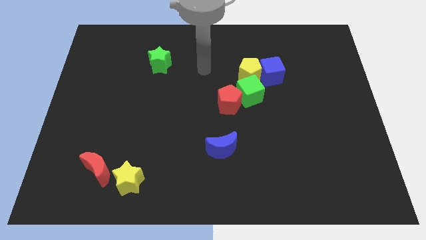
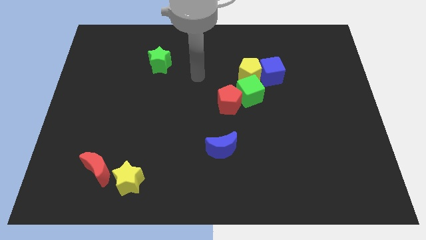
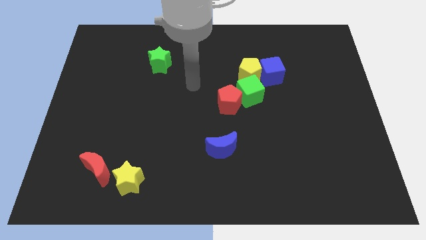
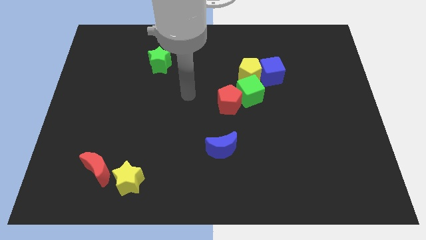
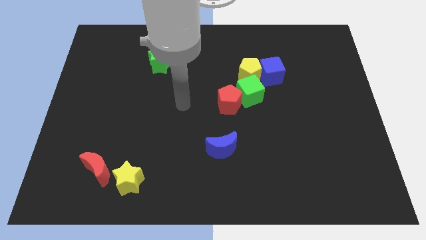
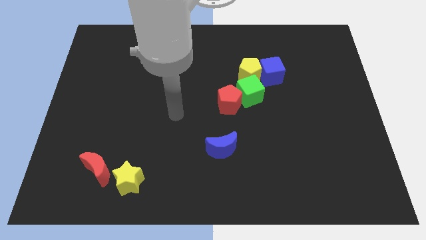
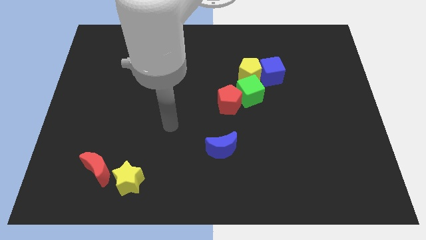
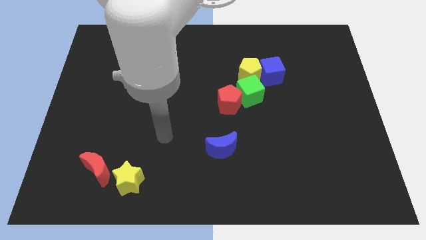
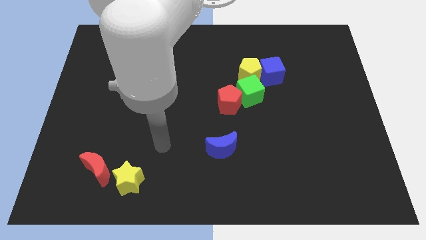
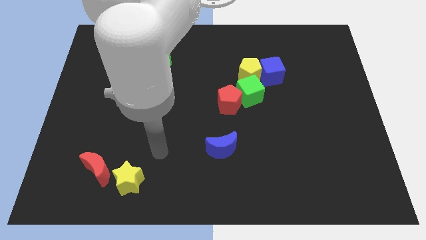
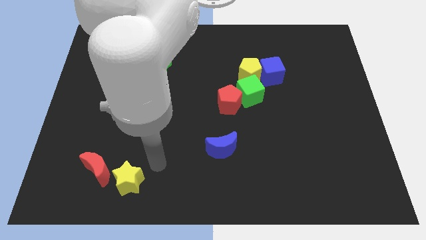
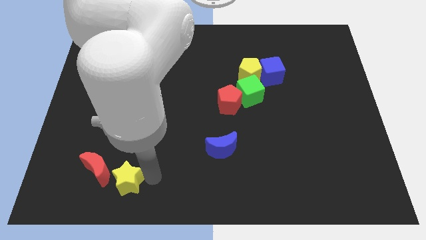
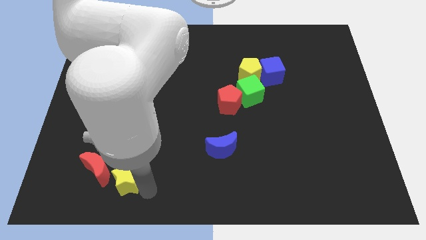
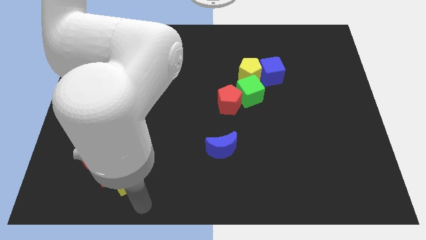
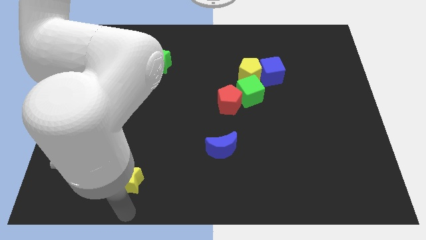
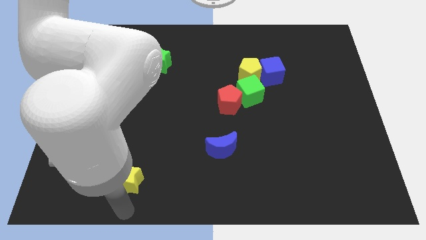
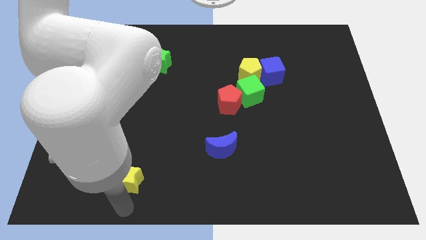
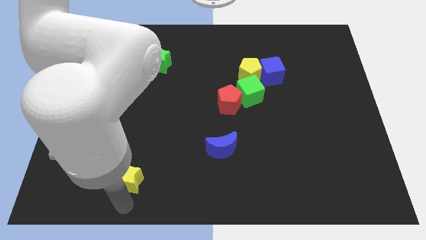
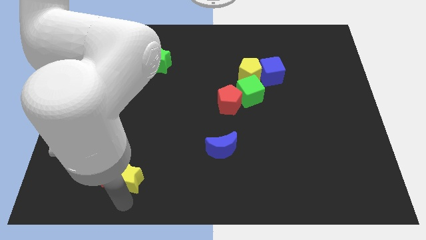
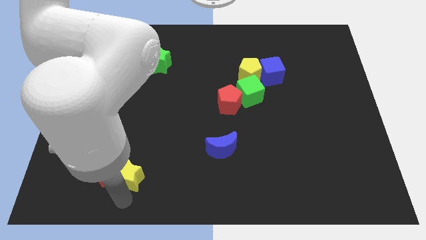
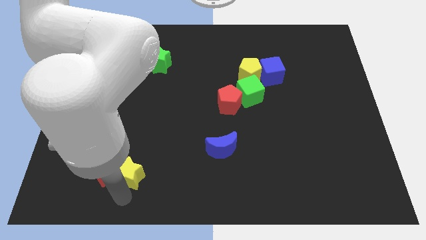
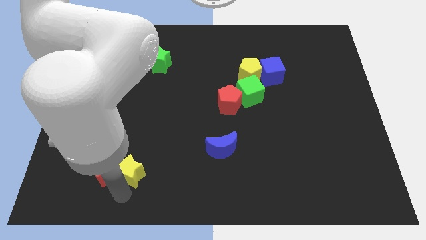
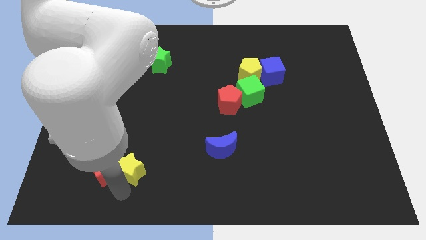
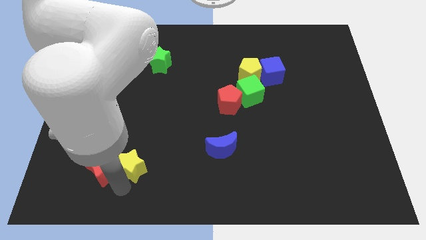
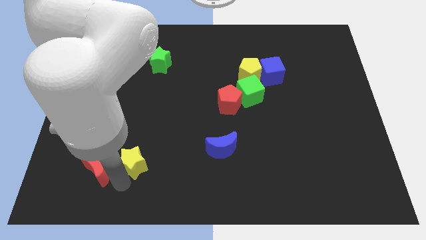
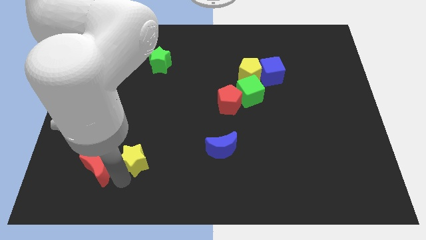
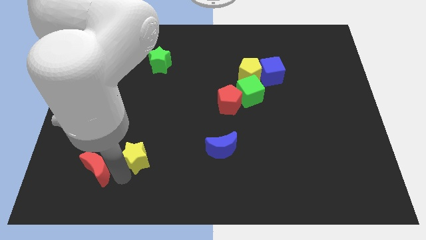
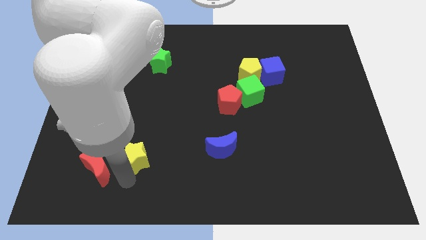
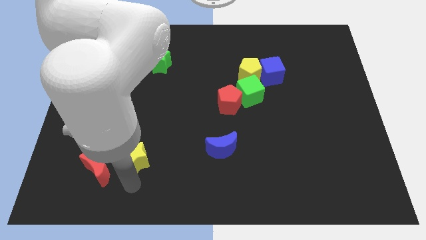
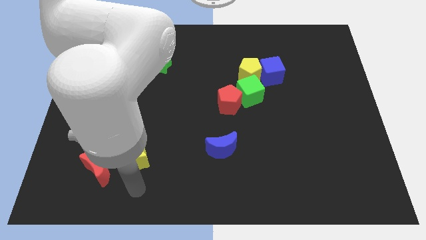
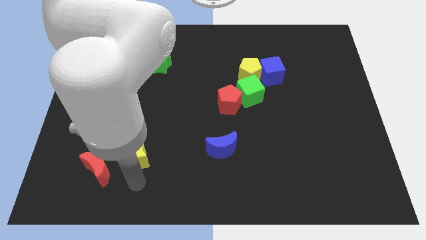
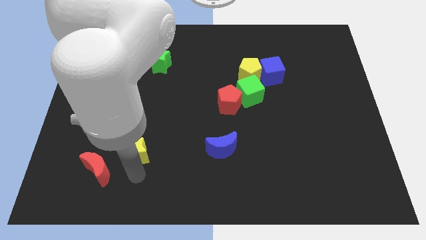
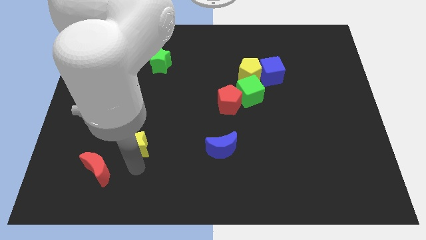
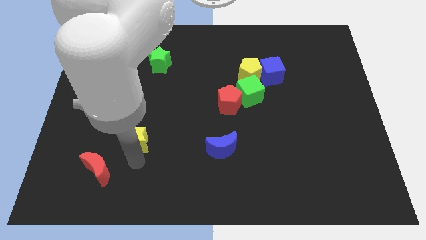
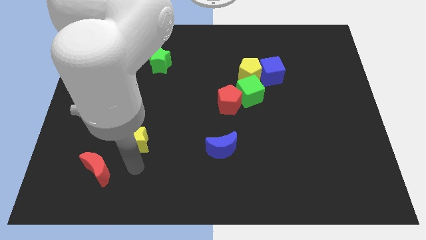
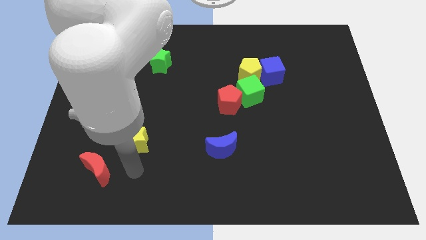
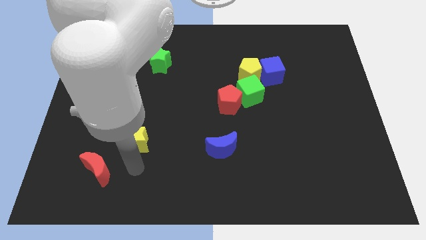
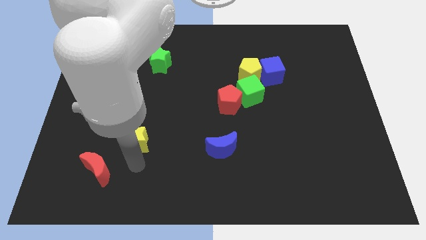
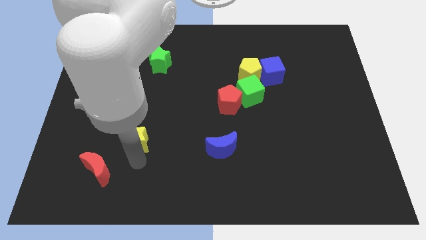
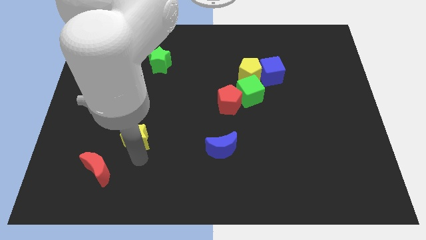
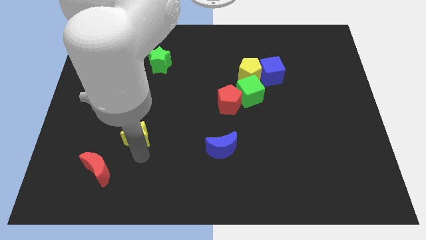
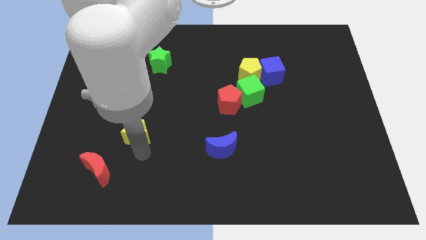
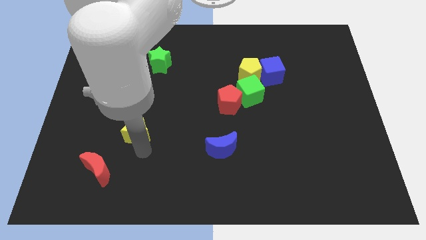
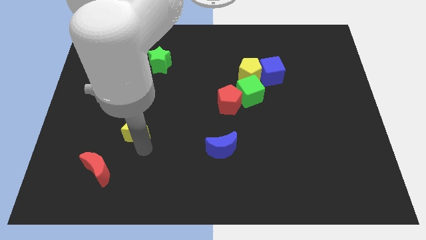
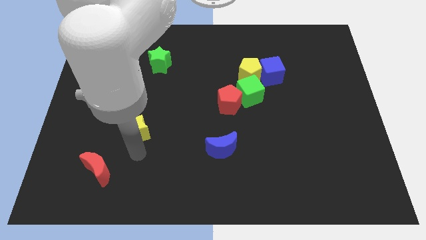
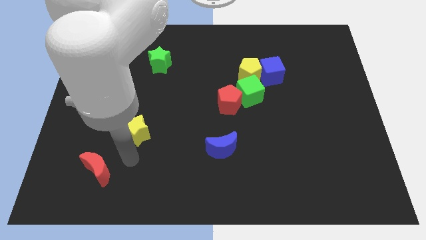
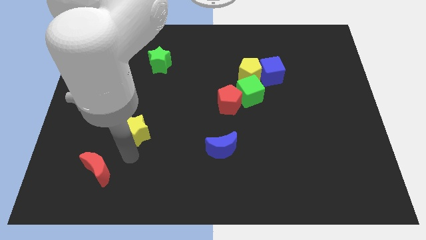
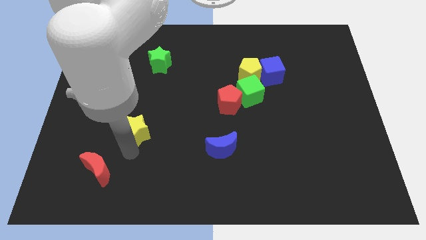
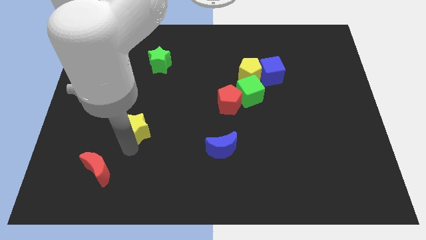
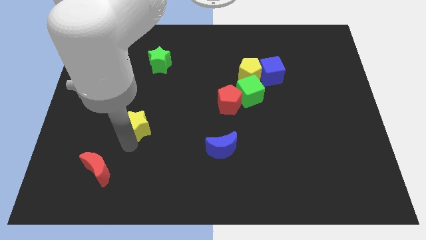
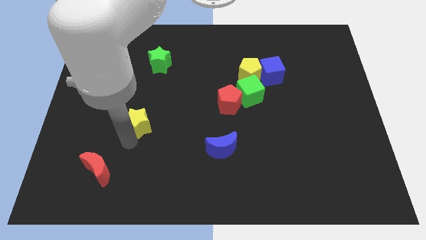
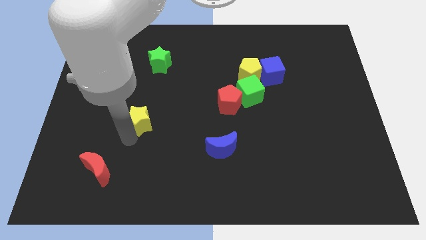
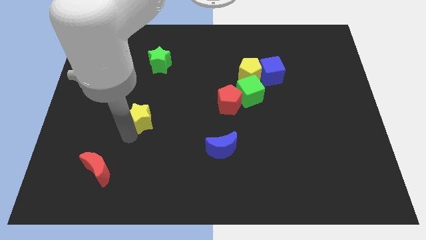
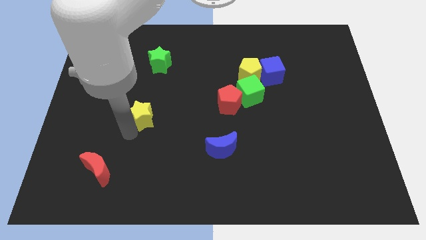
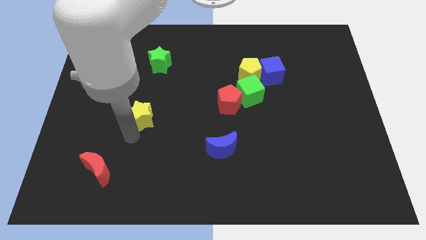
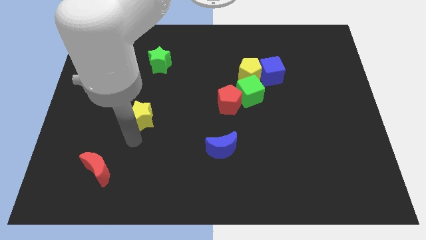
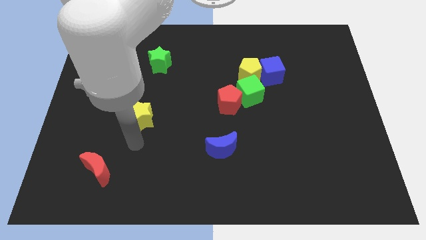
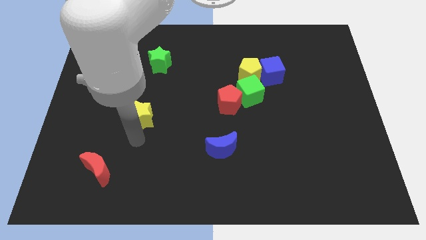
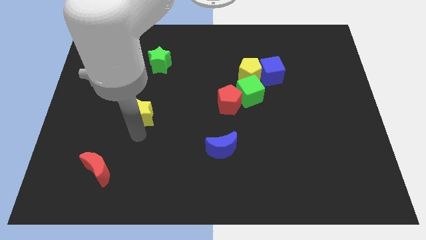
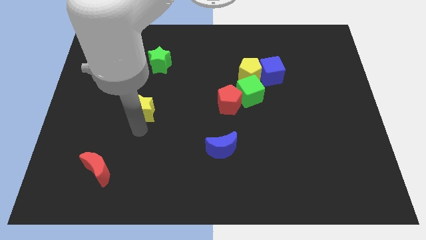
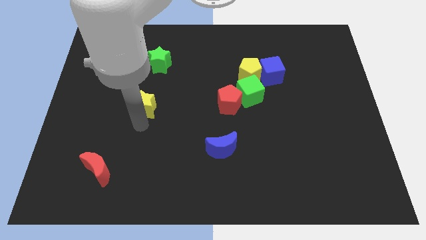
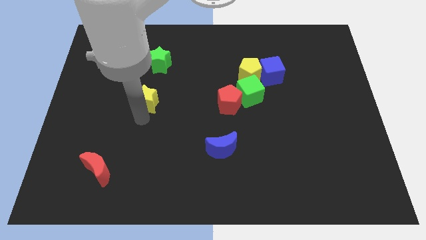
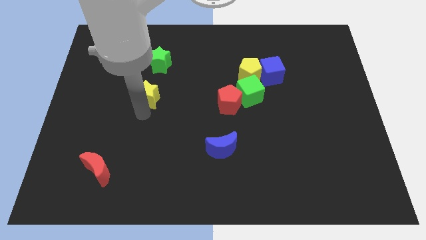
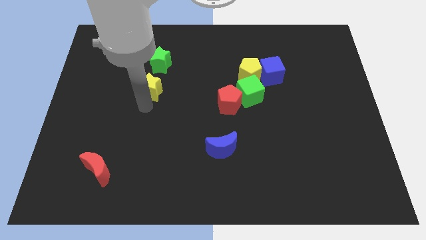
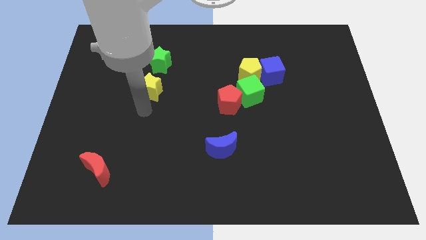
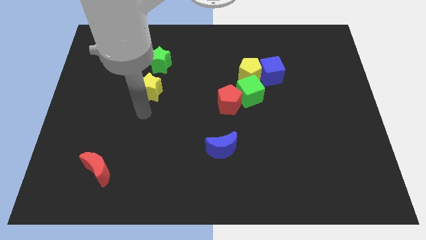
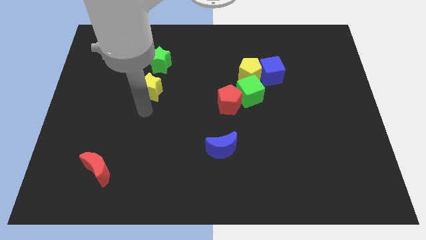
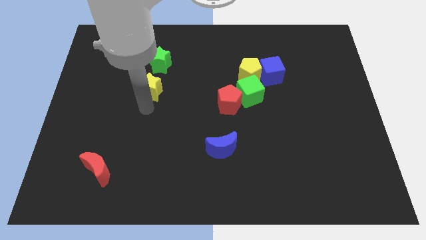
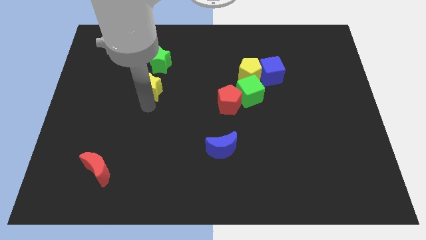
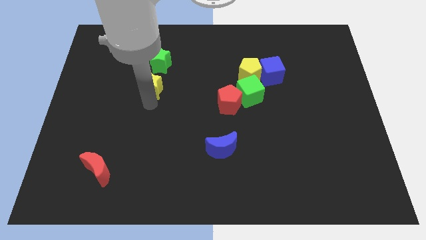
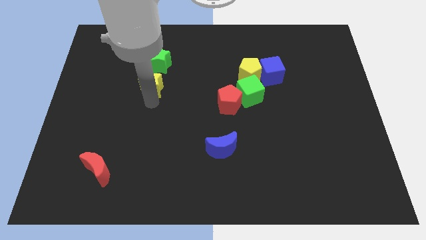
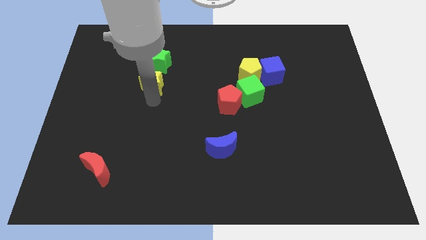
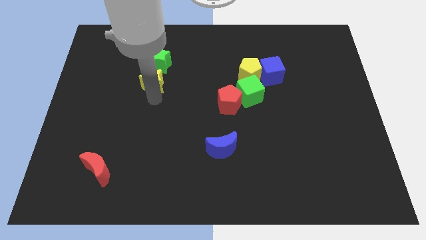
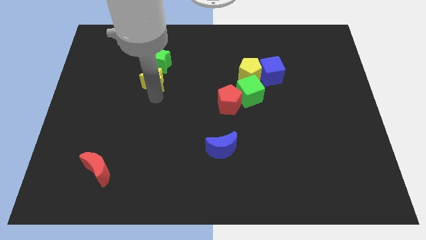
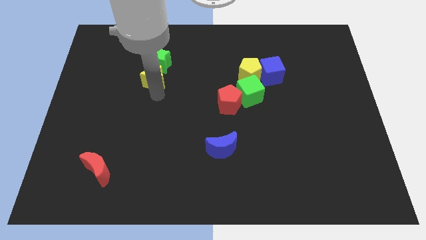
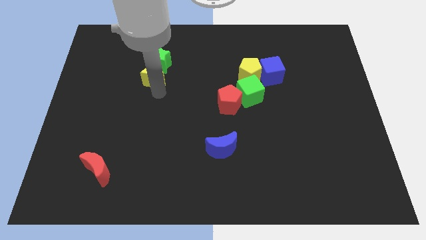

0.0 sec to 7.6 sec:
push the yellow star towards the green star
